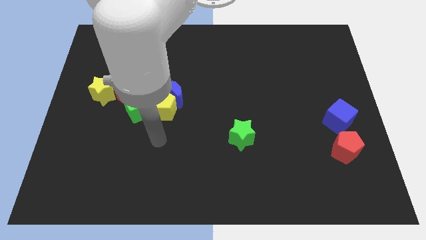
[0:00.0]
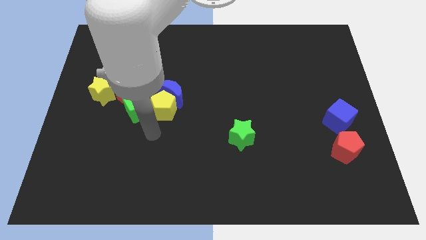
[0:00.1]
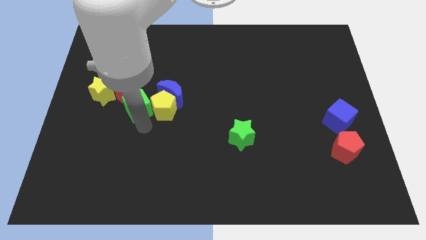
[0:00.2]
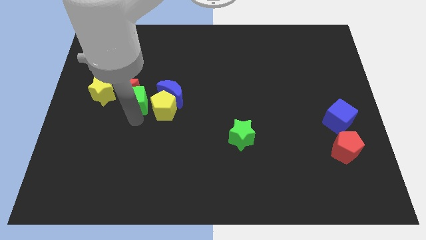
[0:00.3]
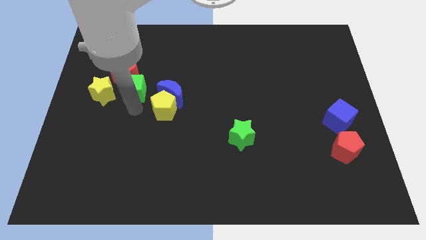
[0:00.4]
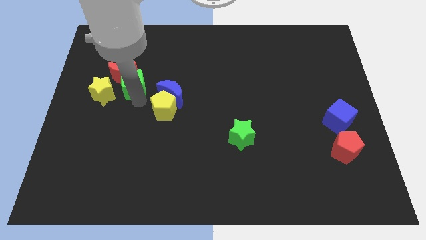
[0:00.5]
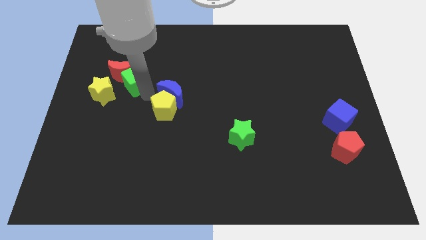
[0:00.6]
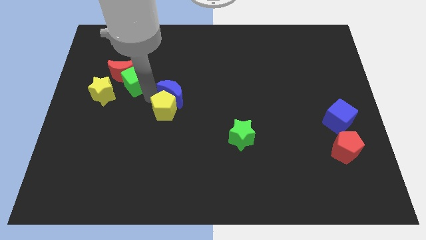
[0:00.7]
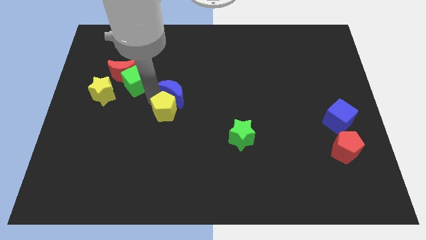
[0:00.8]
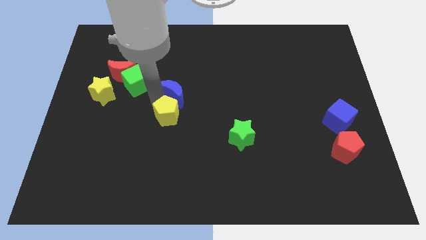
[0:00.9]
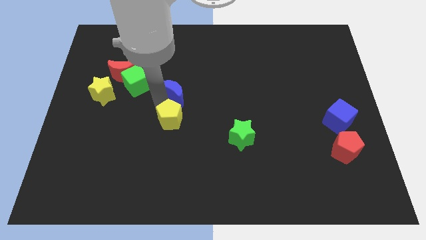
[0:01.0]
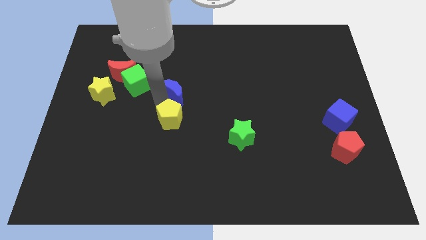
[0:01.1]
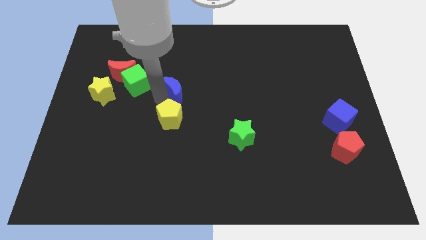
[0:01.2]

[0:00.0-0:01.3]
separate the yellow pentagon from the blue moon and green cube

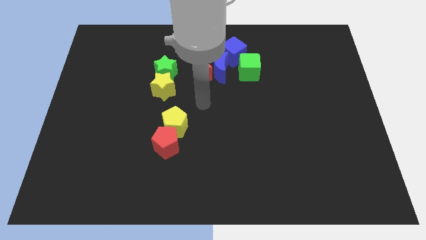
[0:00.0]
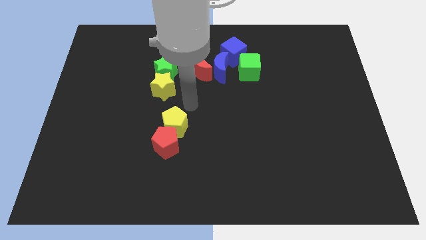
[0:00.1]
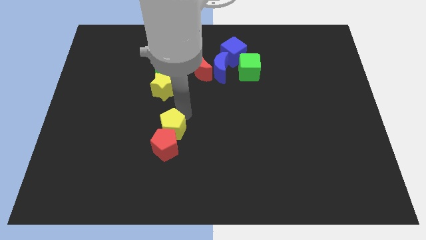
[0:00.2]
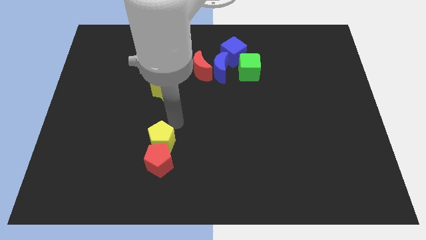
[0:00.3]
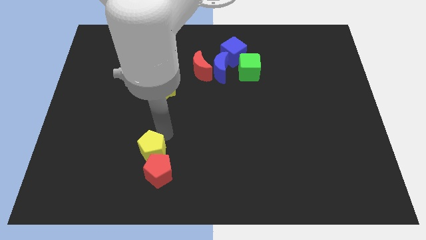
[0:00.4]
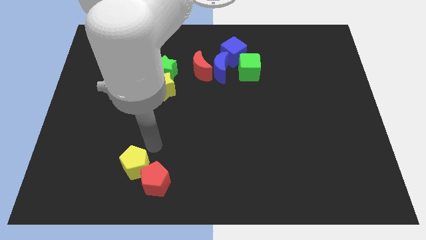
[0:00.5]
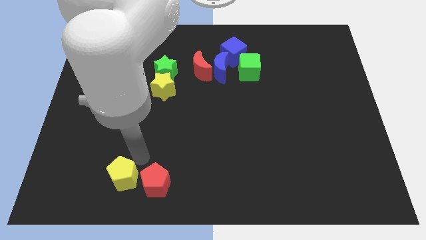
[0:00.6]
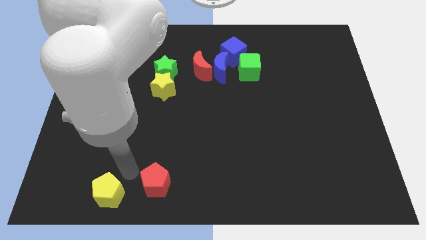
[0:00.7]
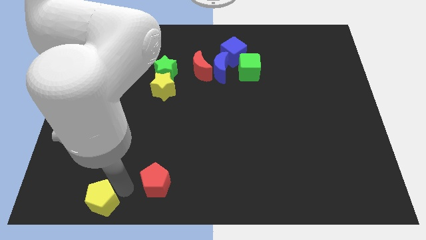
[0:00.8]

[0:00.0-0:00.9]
move the red pentagon away from the yellow pentagon

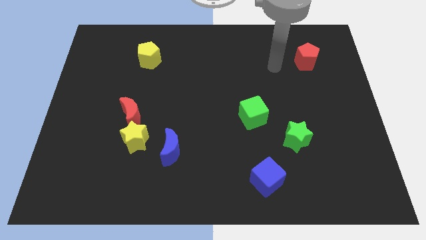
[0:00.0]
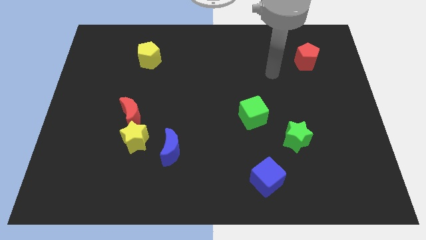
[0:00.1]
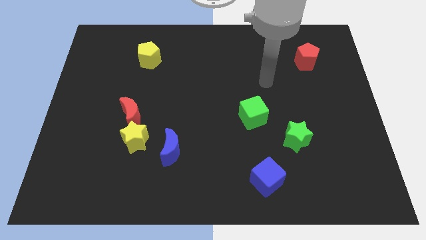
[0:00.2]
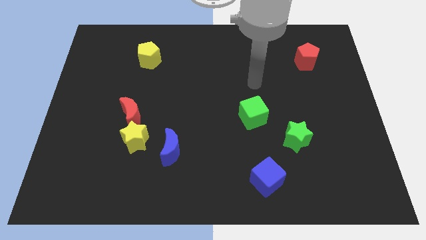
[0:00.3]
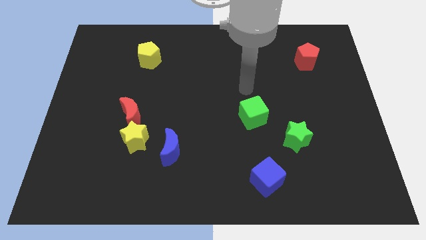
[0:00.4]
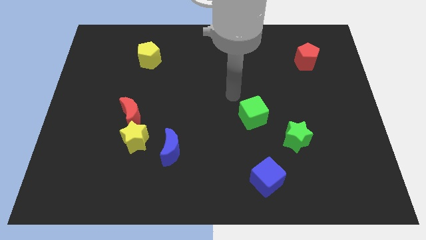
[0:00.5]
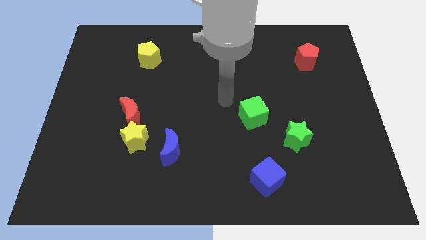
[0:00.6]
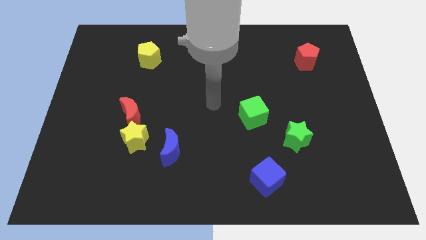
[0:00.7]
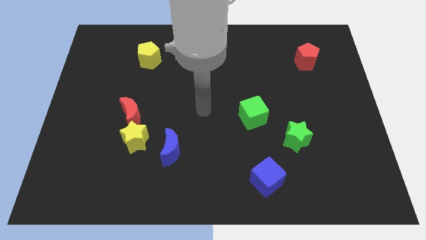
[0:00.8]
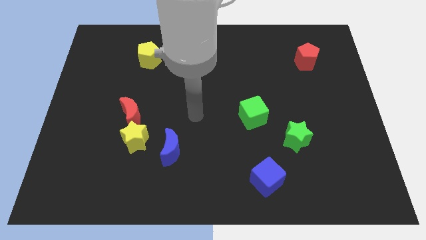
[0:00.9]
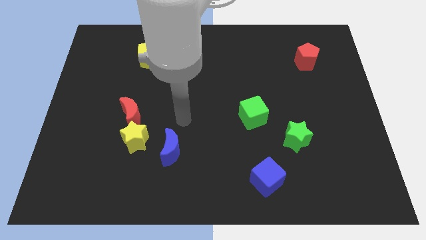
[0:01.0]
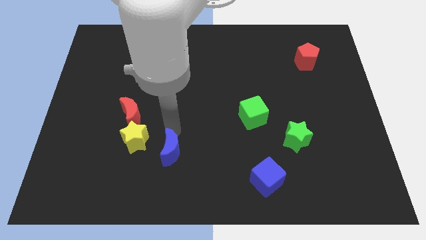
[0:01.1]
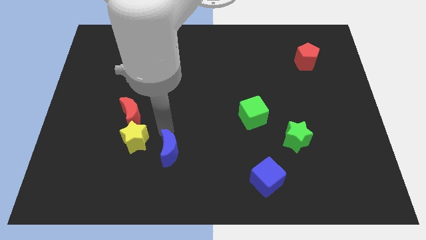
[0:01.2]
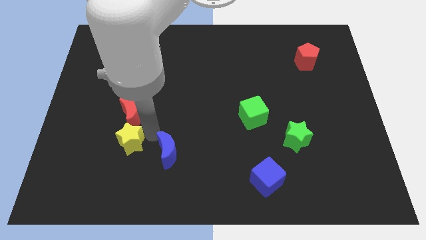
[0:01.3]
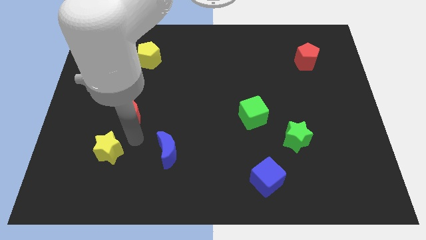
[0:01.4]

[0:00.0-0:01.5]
separate the red moon from the yellow star

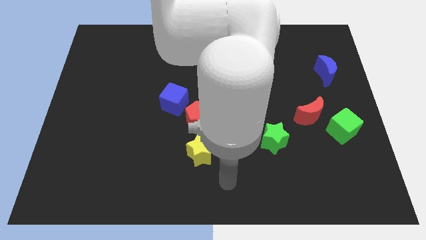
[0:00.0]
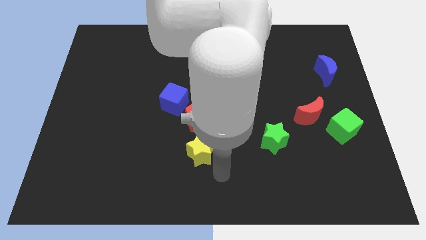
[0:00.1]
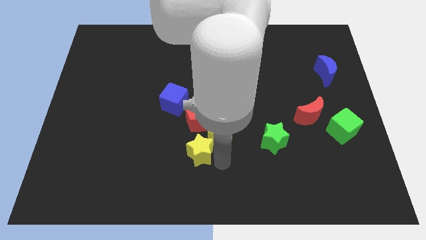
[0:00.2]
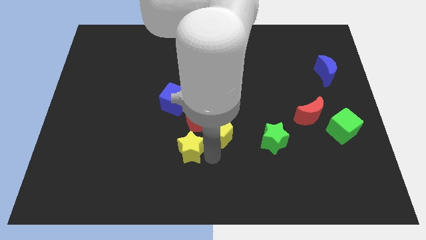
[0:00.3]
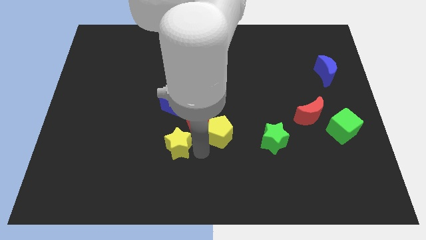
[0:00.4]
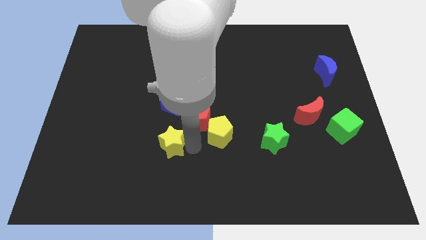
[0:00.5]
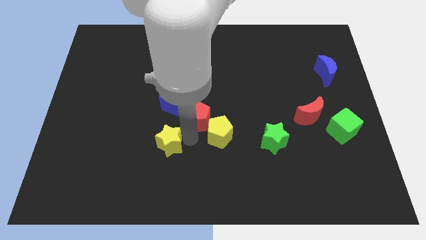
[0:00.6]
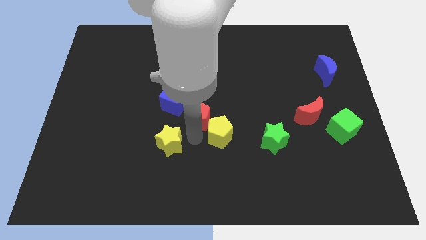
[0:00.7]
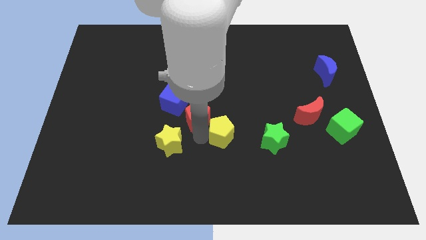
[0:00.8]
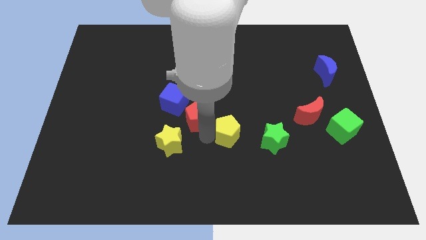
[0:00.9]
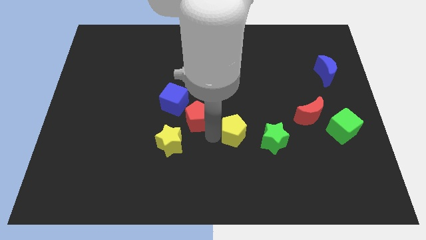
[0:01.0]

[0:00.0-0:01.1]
pull the yellow pentagon apart from the red pentagon and yellow star

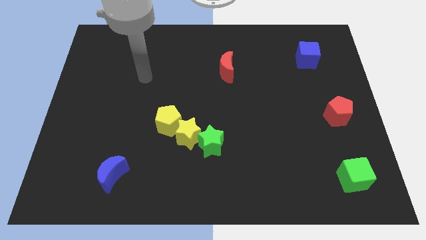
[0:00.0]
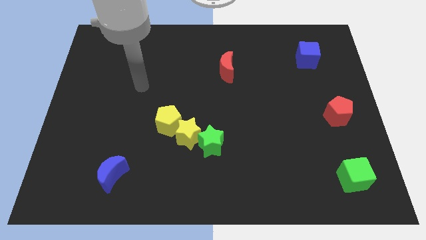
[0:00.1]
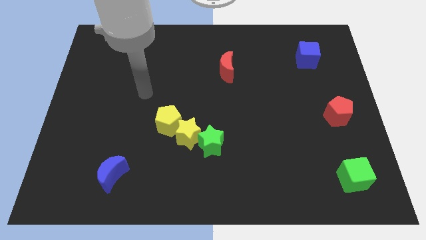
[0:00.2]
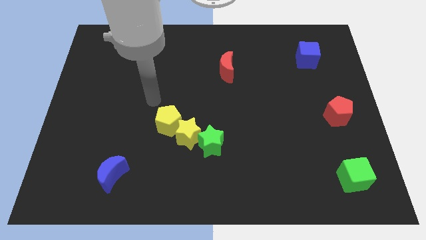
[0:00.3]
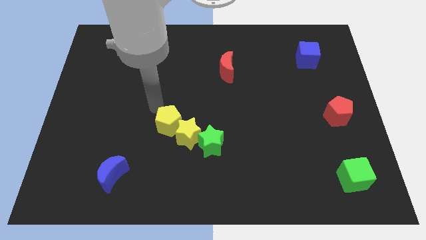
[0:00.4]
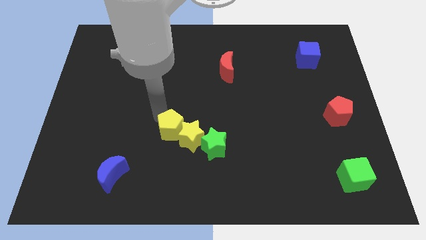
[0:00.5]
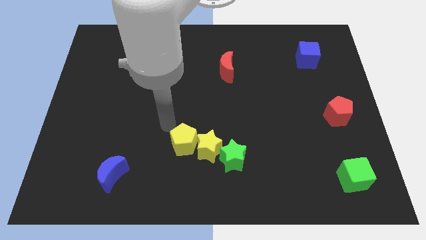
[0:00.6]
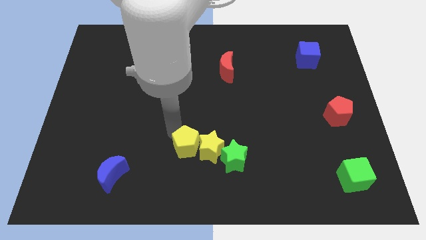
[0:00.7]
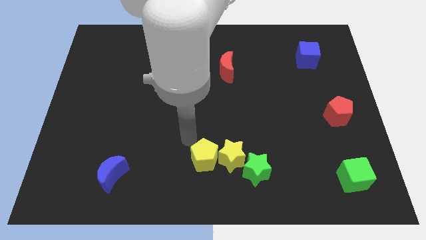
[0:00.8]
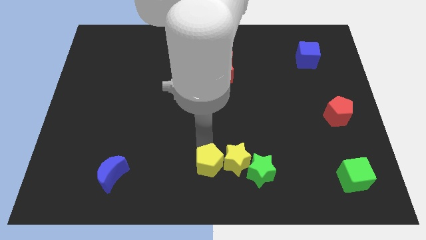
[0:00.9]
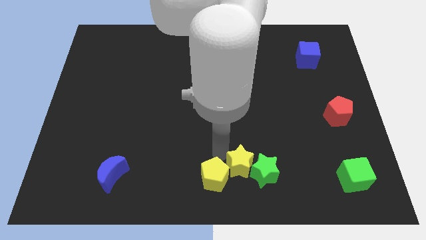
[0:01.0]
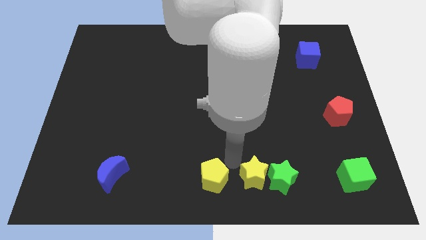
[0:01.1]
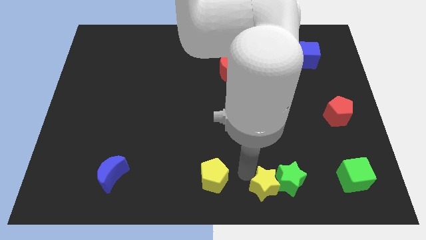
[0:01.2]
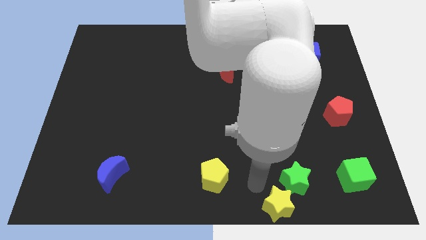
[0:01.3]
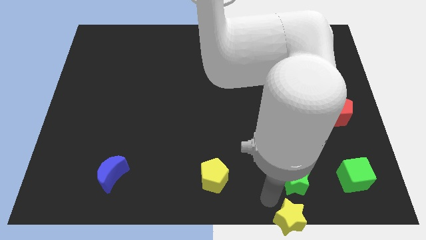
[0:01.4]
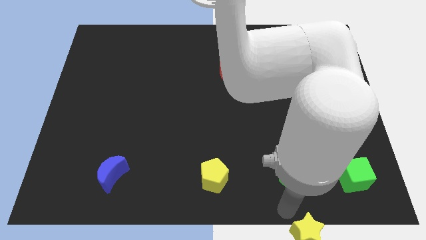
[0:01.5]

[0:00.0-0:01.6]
separate the green star from the yellow star

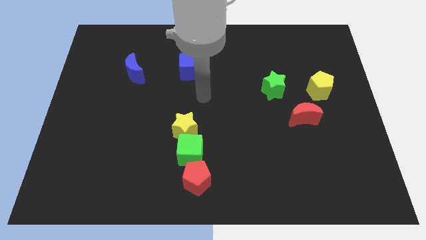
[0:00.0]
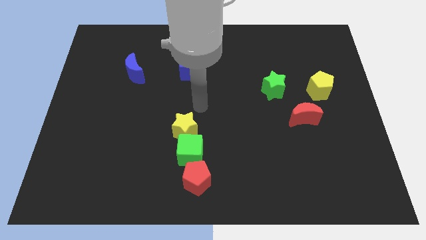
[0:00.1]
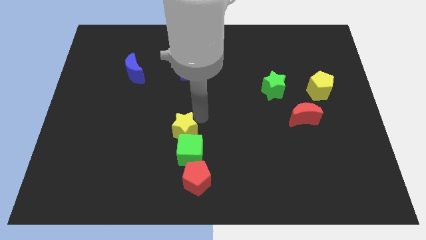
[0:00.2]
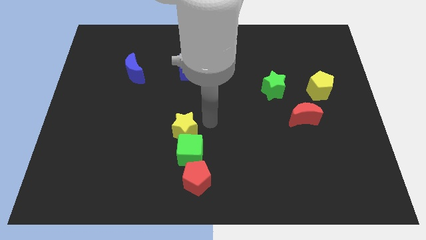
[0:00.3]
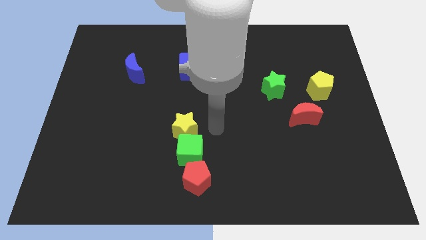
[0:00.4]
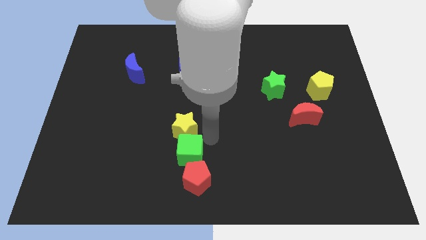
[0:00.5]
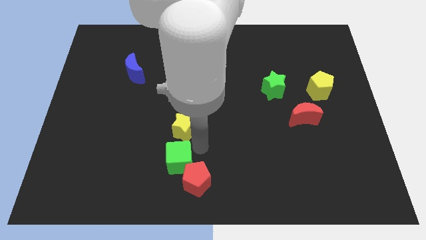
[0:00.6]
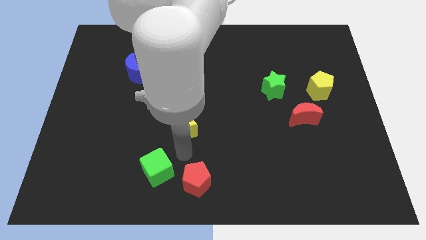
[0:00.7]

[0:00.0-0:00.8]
separate the yellow star from the green cube

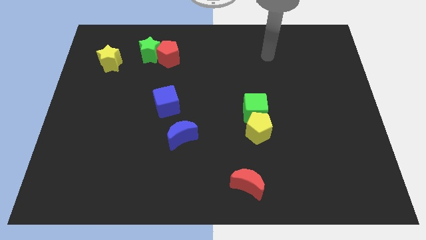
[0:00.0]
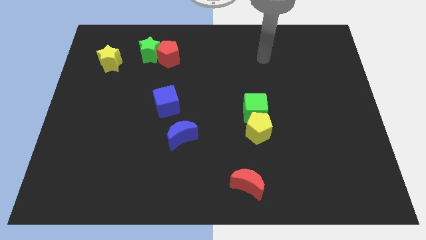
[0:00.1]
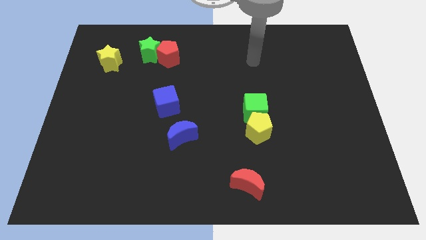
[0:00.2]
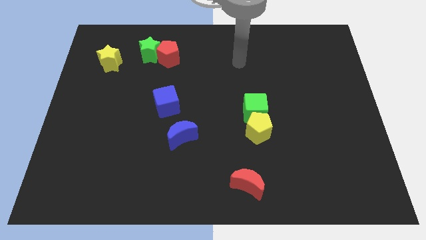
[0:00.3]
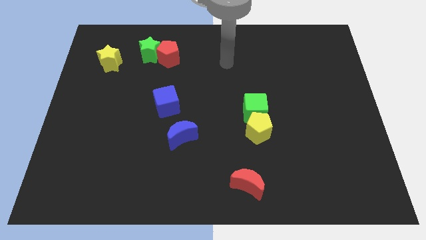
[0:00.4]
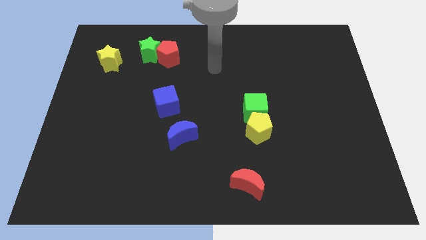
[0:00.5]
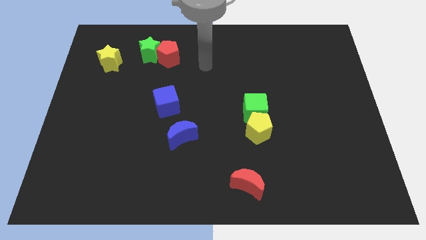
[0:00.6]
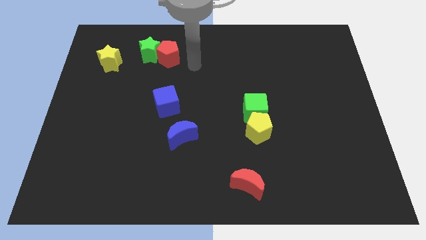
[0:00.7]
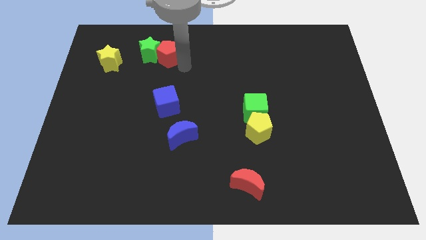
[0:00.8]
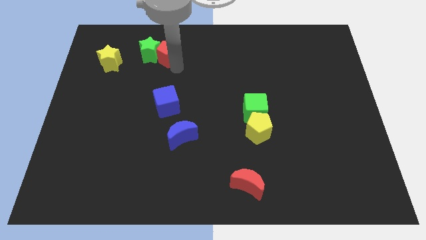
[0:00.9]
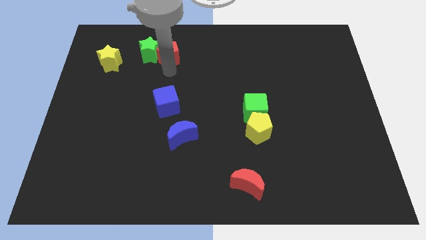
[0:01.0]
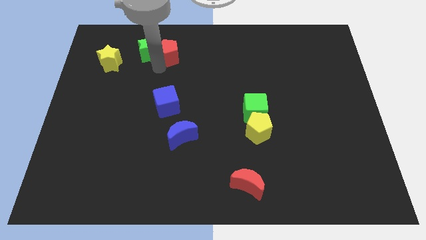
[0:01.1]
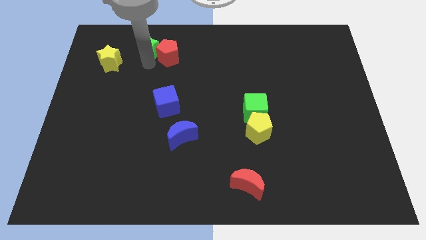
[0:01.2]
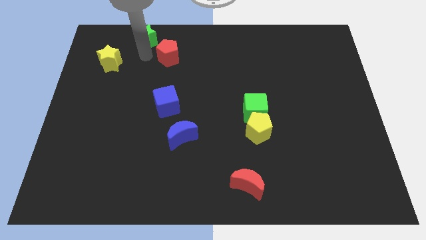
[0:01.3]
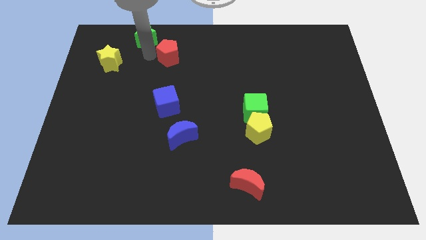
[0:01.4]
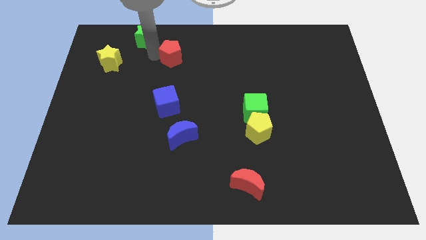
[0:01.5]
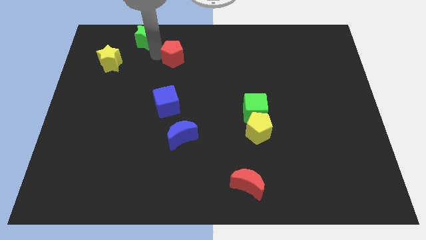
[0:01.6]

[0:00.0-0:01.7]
separate the red pentagon from the green star

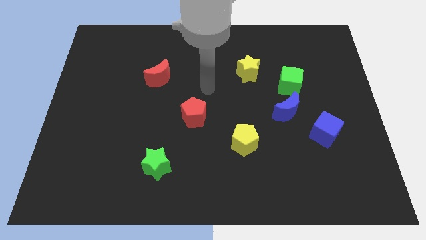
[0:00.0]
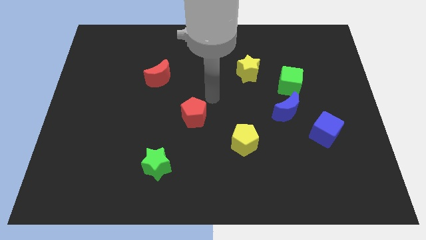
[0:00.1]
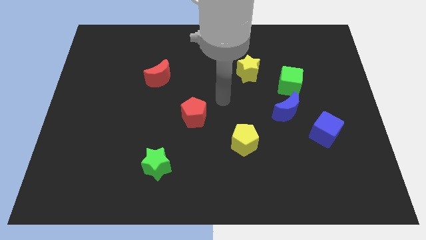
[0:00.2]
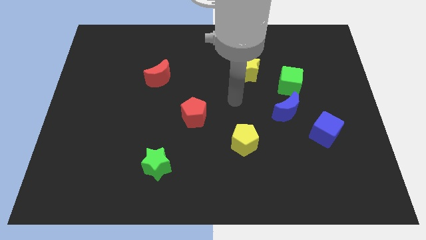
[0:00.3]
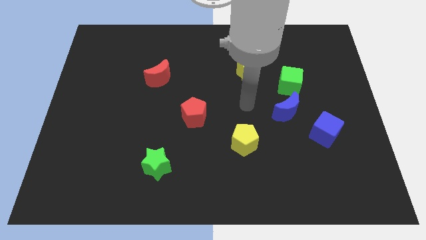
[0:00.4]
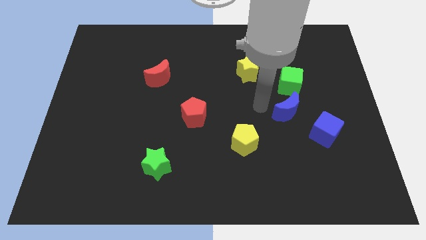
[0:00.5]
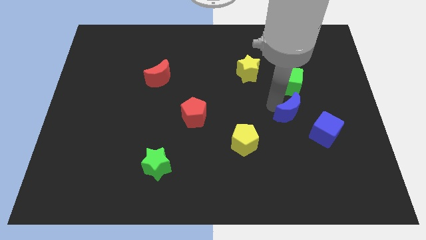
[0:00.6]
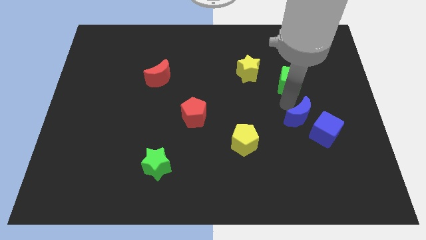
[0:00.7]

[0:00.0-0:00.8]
pull the green cube apart from the blue moon
